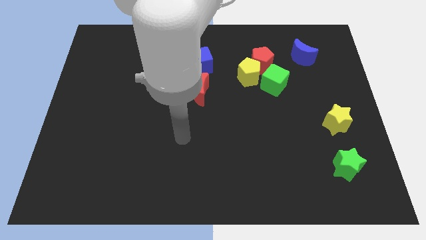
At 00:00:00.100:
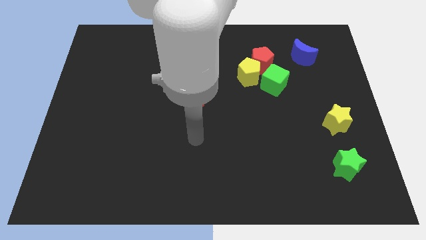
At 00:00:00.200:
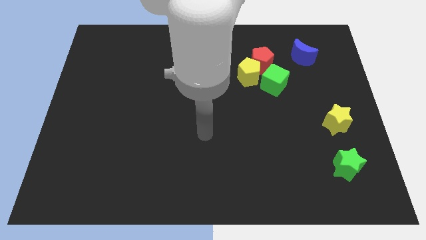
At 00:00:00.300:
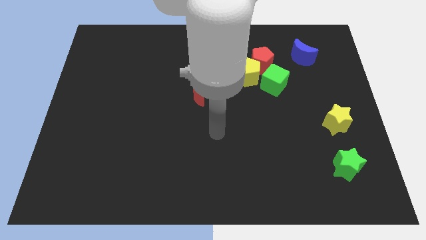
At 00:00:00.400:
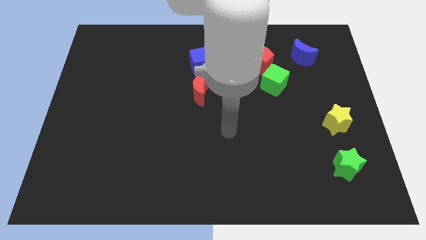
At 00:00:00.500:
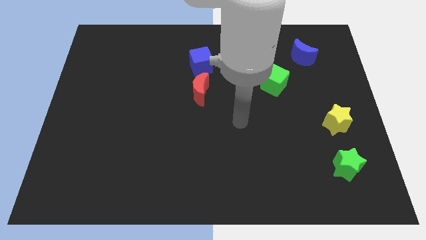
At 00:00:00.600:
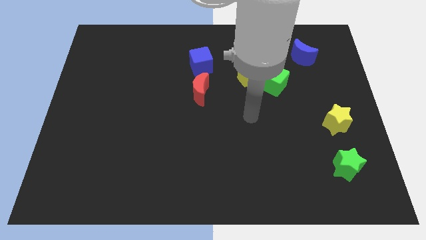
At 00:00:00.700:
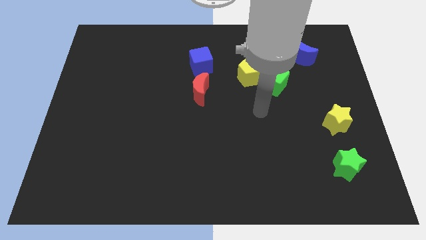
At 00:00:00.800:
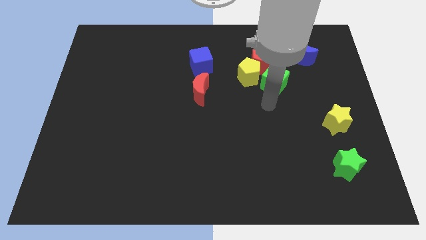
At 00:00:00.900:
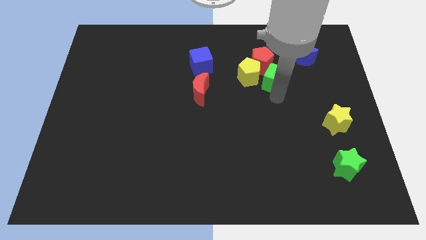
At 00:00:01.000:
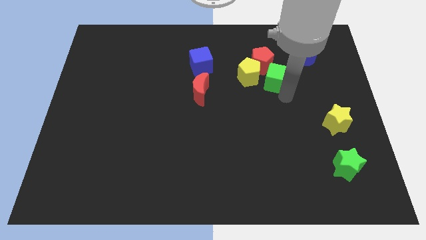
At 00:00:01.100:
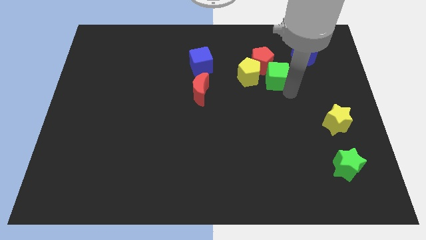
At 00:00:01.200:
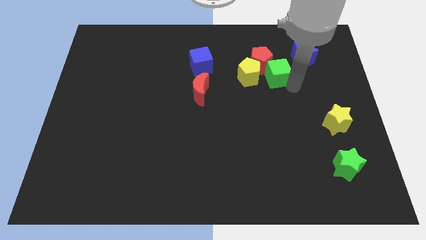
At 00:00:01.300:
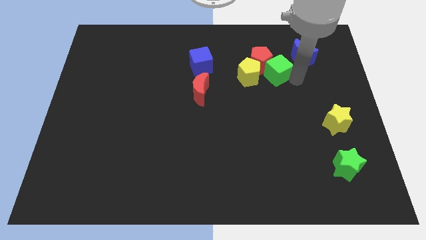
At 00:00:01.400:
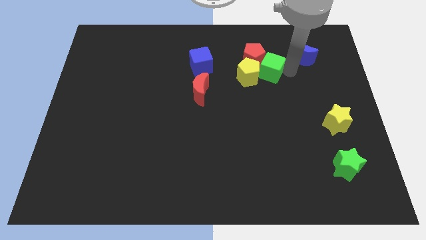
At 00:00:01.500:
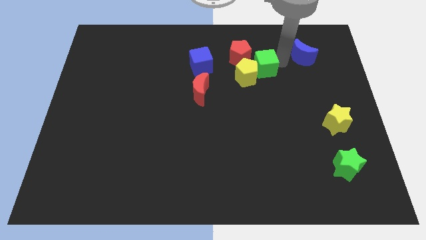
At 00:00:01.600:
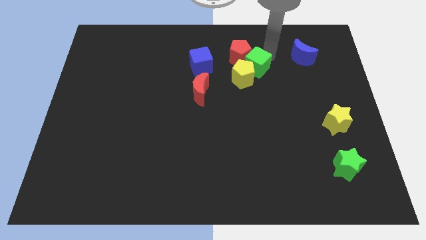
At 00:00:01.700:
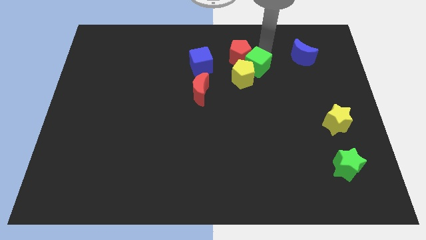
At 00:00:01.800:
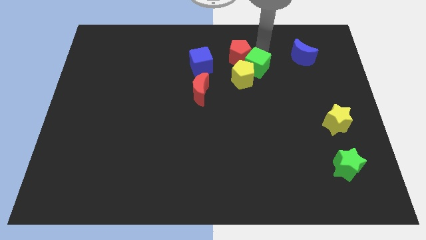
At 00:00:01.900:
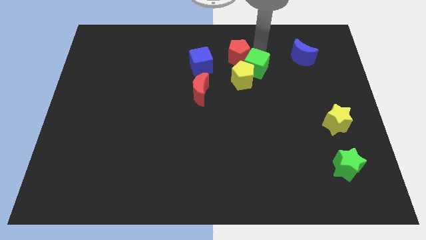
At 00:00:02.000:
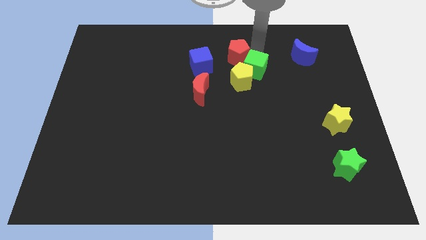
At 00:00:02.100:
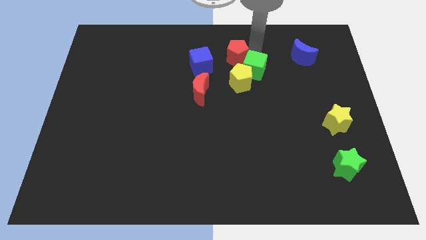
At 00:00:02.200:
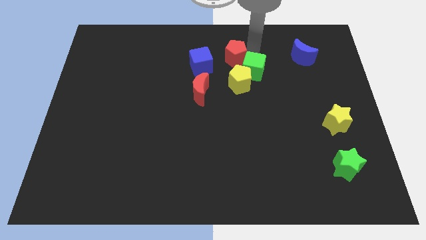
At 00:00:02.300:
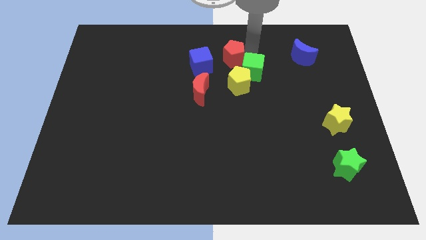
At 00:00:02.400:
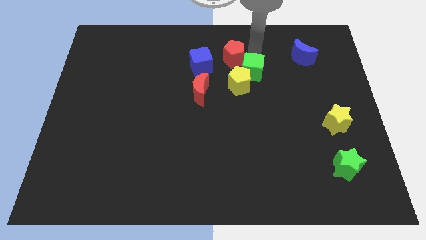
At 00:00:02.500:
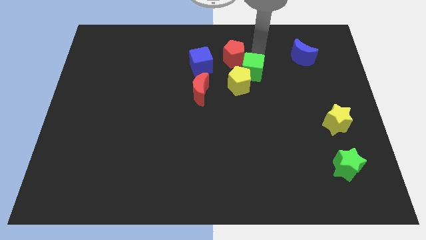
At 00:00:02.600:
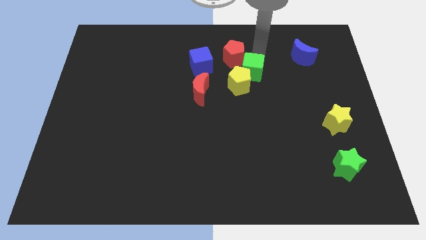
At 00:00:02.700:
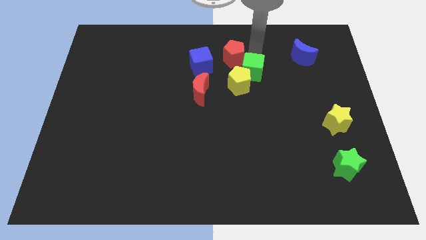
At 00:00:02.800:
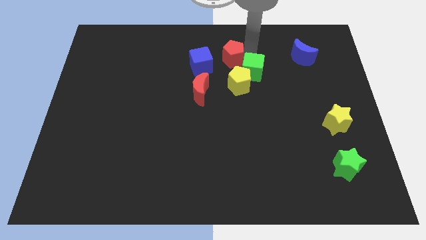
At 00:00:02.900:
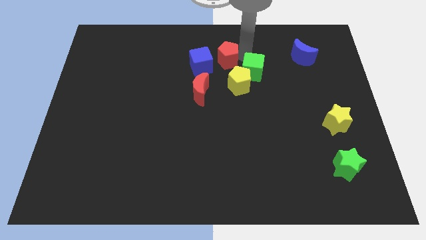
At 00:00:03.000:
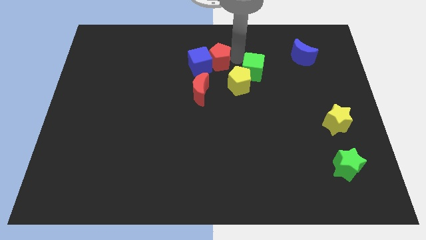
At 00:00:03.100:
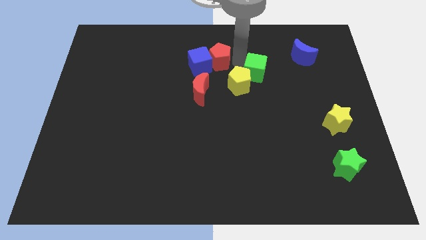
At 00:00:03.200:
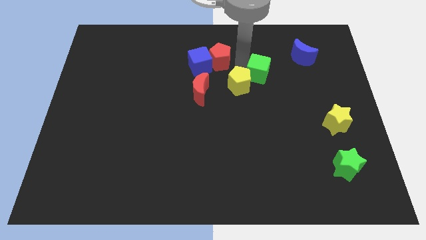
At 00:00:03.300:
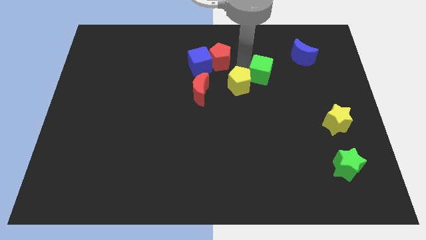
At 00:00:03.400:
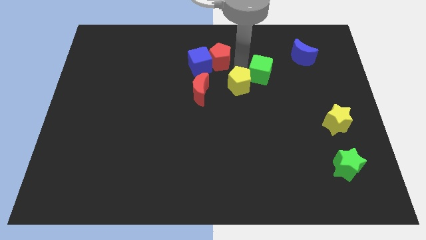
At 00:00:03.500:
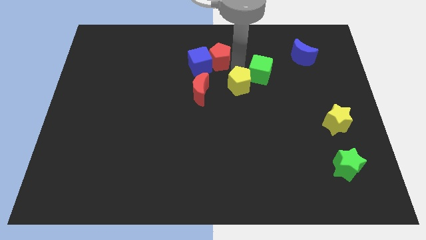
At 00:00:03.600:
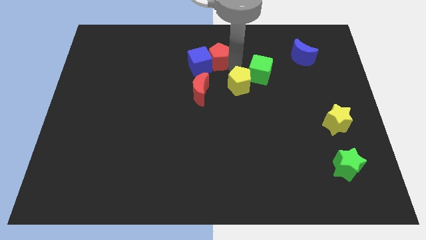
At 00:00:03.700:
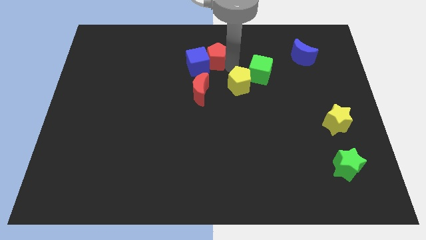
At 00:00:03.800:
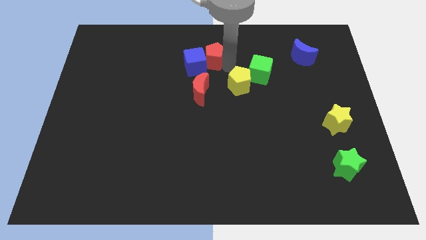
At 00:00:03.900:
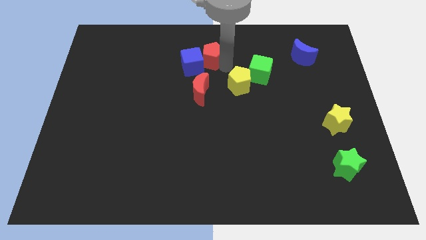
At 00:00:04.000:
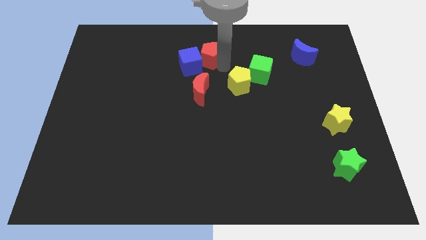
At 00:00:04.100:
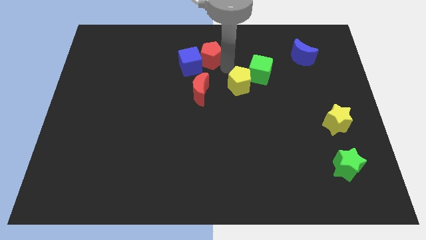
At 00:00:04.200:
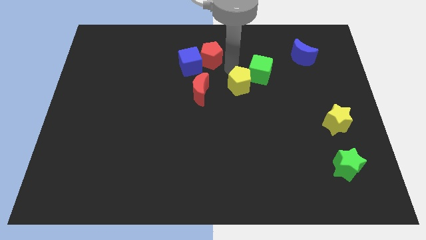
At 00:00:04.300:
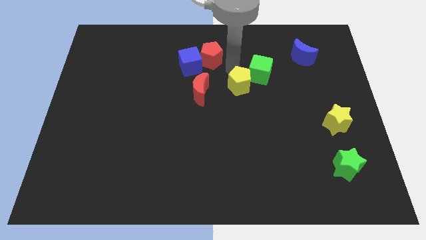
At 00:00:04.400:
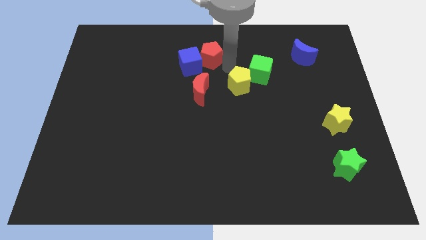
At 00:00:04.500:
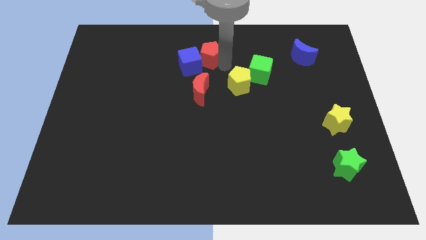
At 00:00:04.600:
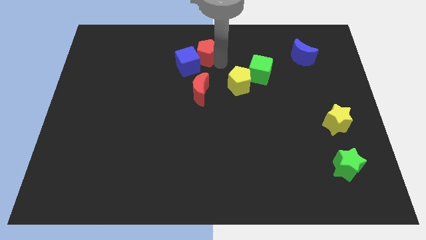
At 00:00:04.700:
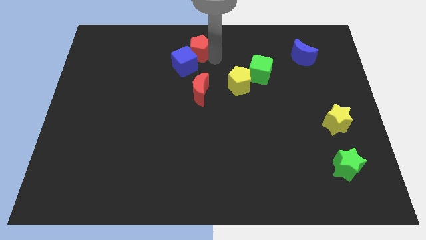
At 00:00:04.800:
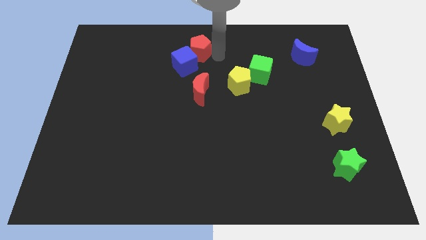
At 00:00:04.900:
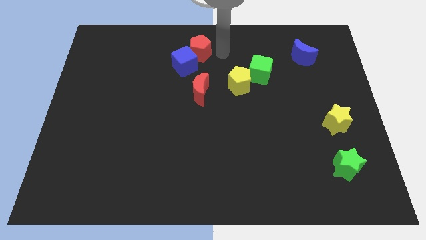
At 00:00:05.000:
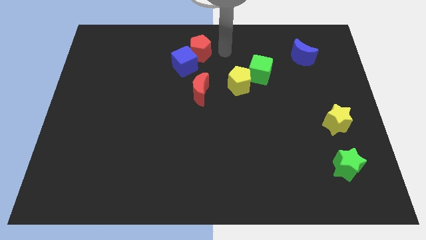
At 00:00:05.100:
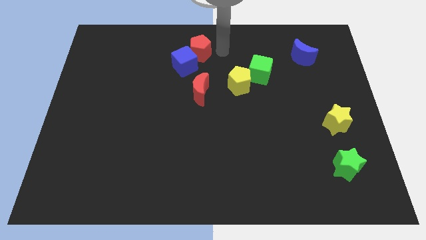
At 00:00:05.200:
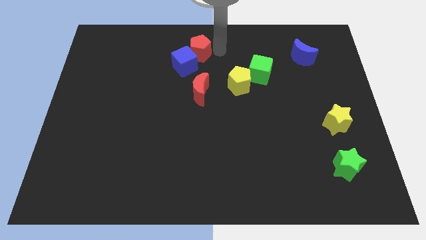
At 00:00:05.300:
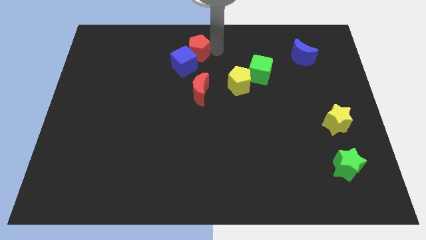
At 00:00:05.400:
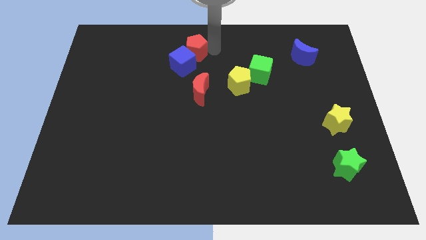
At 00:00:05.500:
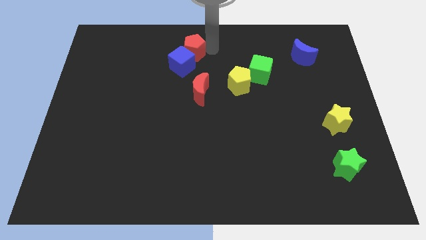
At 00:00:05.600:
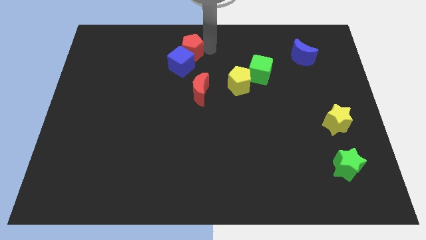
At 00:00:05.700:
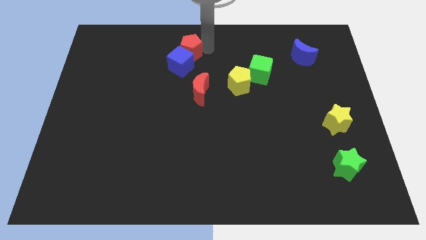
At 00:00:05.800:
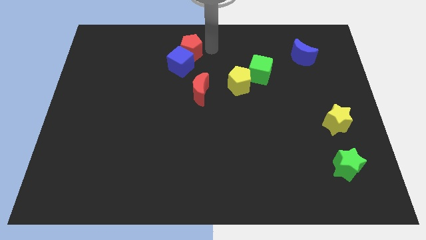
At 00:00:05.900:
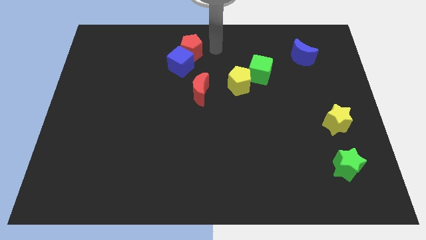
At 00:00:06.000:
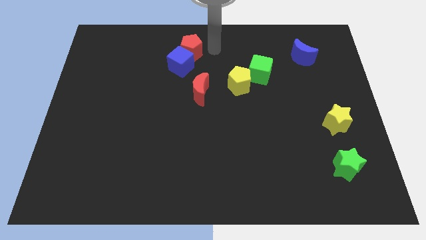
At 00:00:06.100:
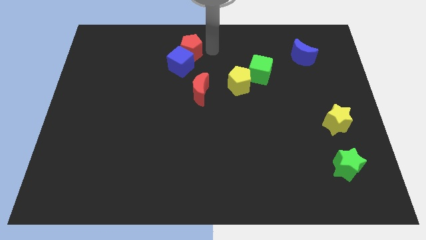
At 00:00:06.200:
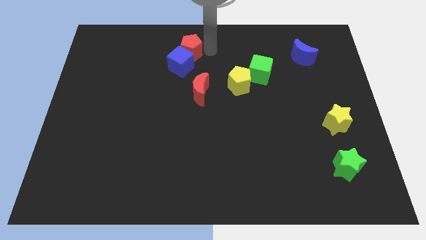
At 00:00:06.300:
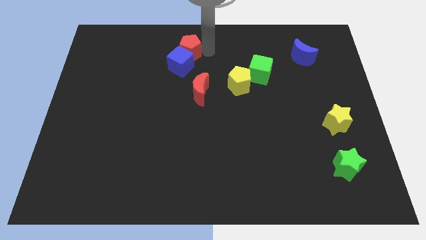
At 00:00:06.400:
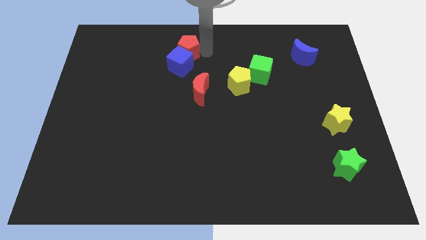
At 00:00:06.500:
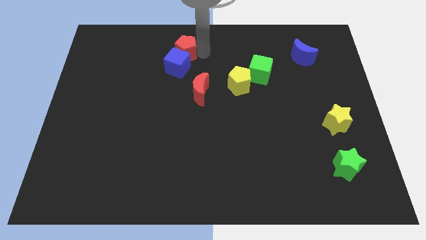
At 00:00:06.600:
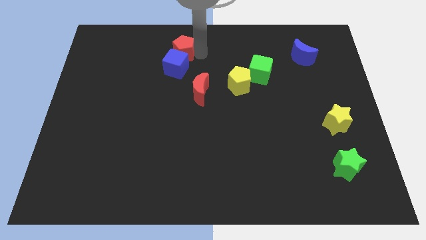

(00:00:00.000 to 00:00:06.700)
slide the red pentagon left

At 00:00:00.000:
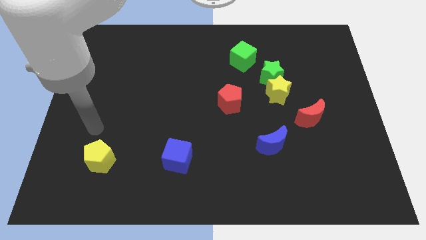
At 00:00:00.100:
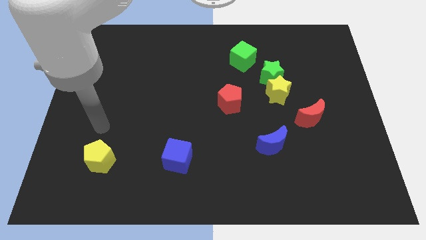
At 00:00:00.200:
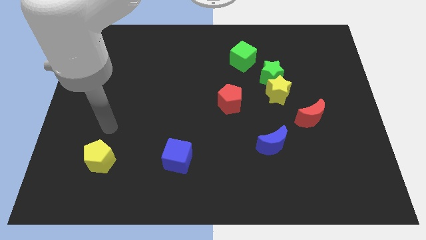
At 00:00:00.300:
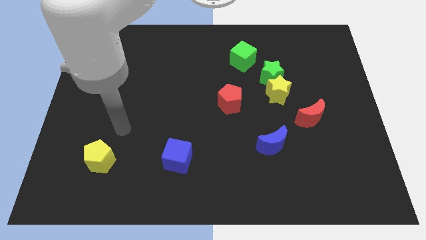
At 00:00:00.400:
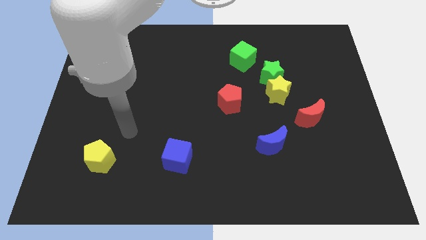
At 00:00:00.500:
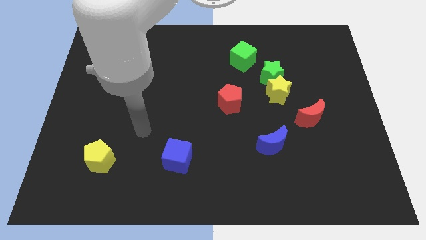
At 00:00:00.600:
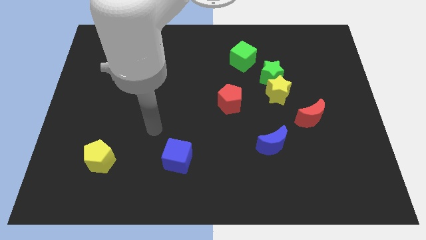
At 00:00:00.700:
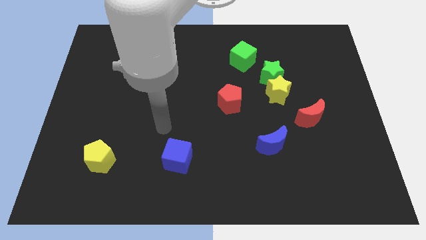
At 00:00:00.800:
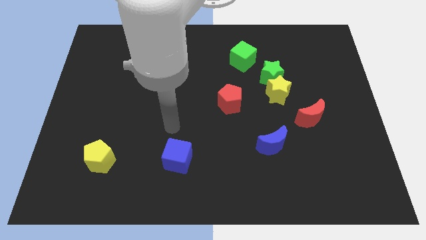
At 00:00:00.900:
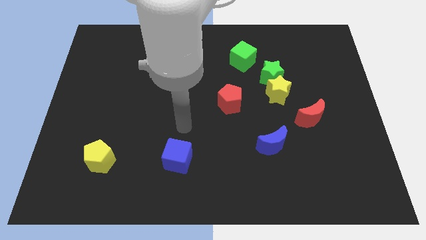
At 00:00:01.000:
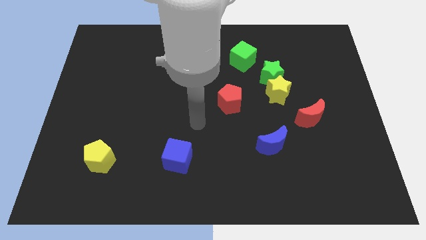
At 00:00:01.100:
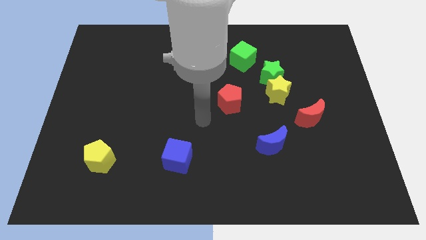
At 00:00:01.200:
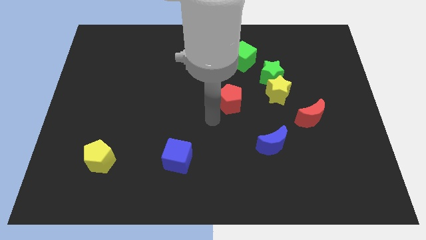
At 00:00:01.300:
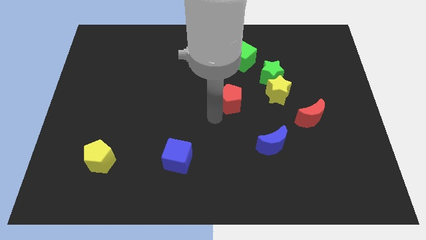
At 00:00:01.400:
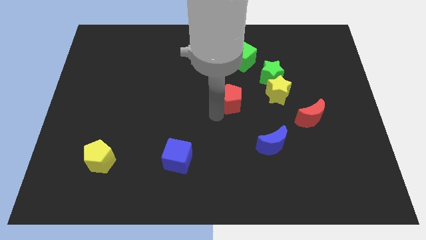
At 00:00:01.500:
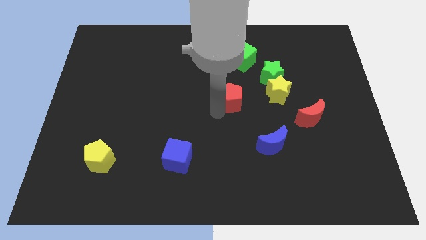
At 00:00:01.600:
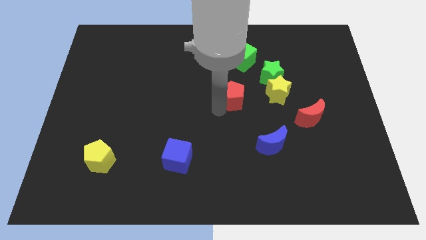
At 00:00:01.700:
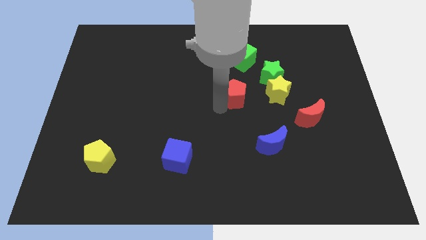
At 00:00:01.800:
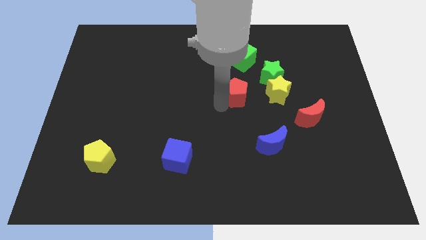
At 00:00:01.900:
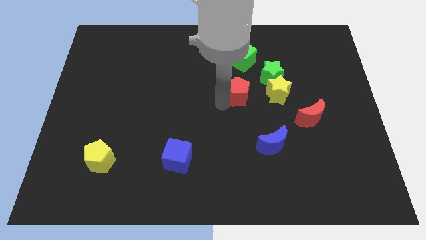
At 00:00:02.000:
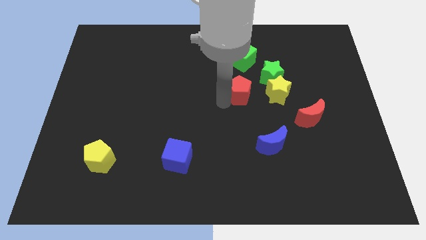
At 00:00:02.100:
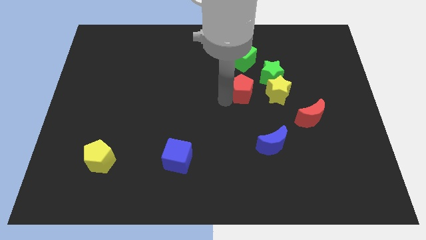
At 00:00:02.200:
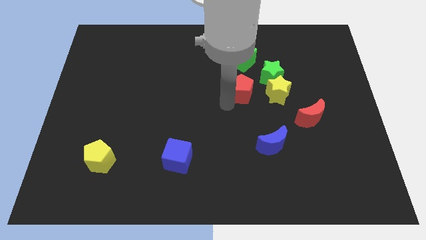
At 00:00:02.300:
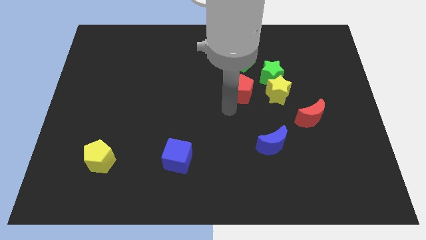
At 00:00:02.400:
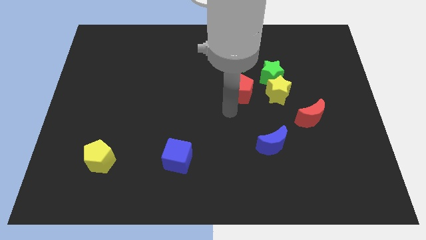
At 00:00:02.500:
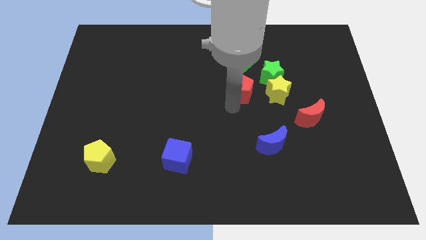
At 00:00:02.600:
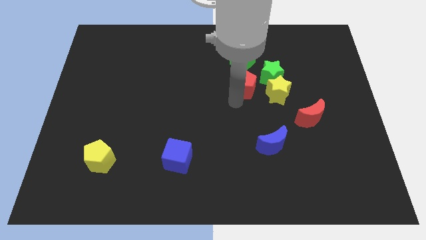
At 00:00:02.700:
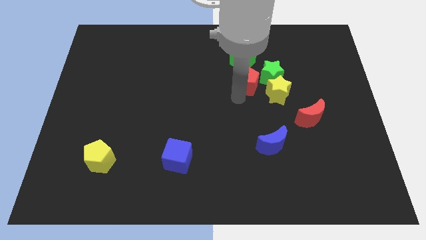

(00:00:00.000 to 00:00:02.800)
slightly slide the red pentagon upwards and right diagonally
